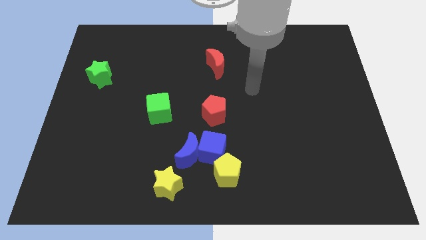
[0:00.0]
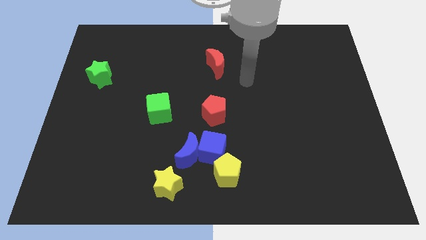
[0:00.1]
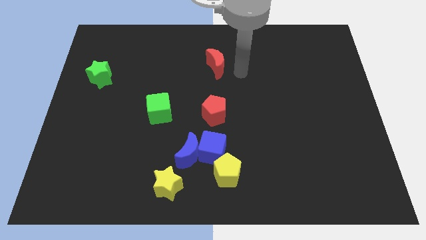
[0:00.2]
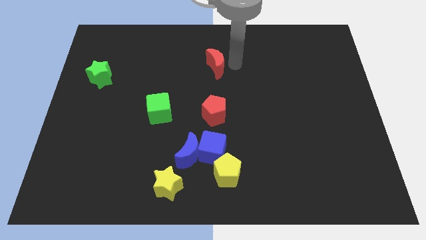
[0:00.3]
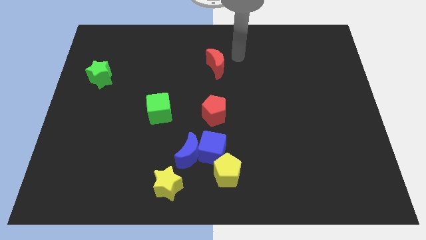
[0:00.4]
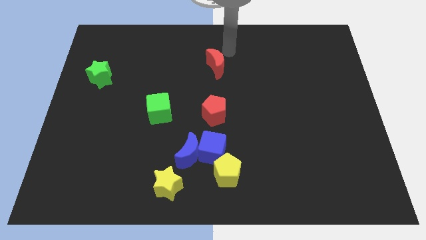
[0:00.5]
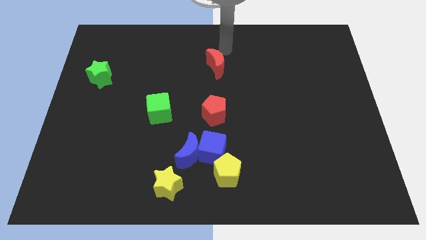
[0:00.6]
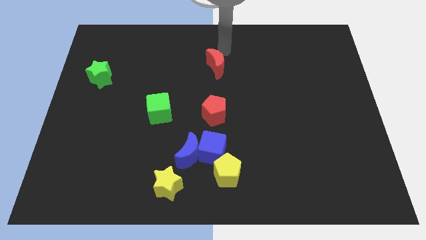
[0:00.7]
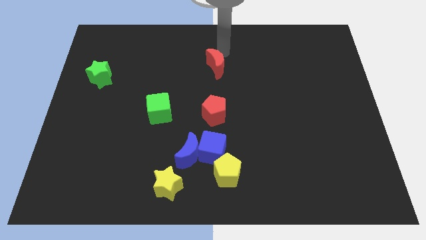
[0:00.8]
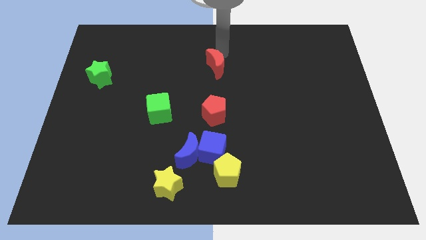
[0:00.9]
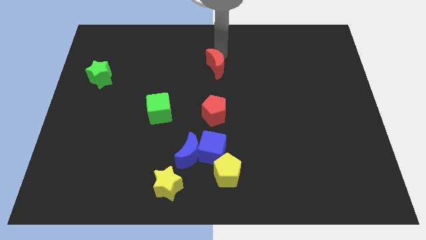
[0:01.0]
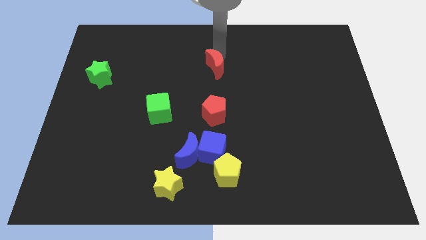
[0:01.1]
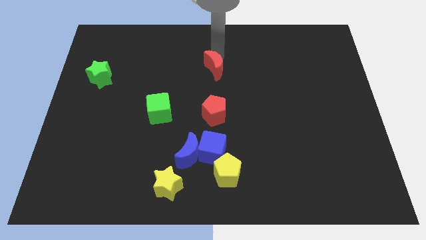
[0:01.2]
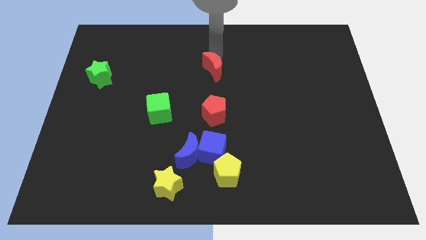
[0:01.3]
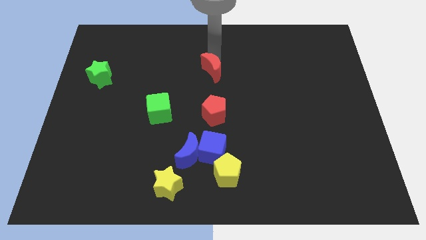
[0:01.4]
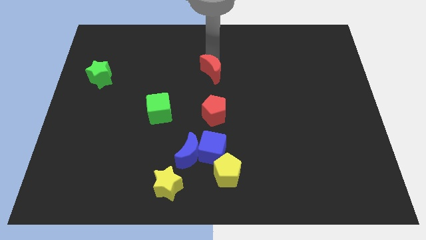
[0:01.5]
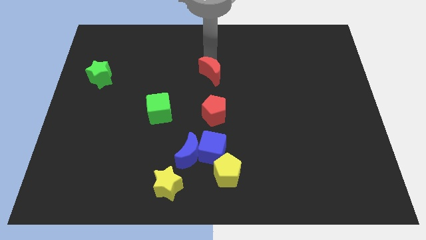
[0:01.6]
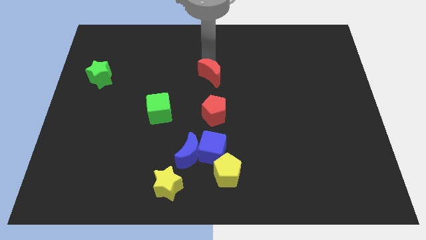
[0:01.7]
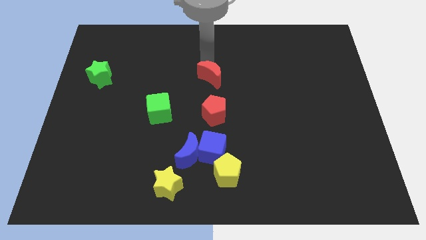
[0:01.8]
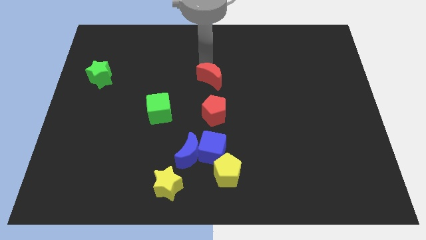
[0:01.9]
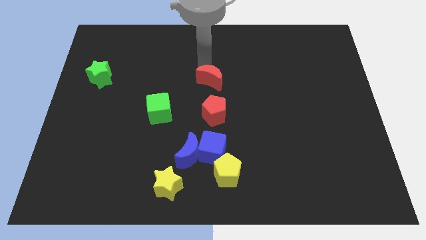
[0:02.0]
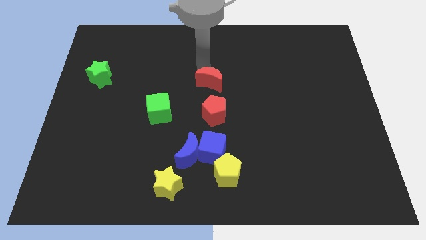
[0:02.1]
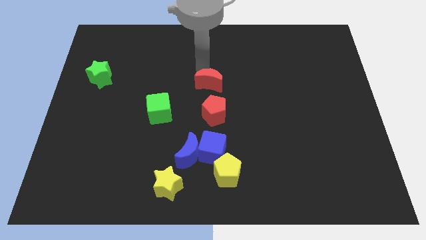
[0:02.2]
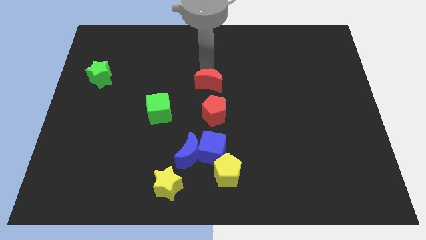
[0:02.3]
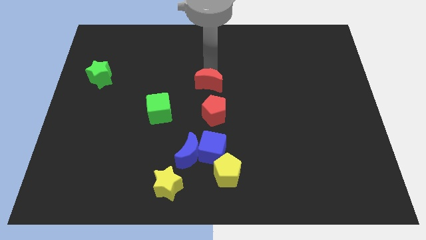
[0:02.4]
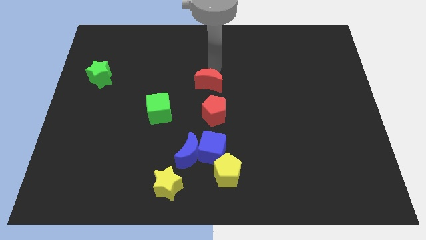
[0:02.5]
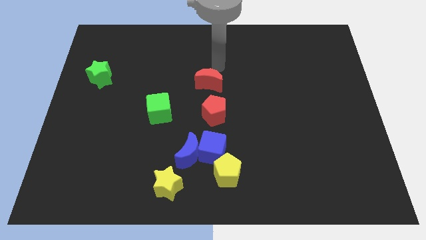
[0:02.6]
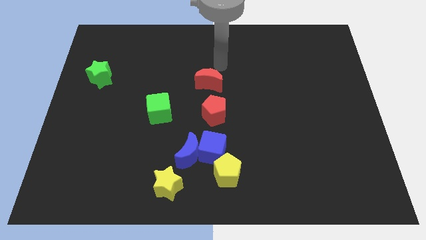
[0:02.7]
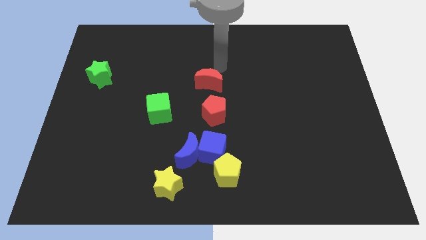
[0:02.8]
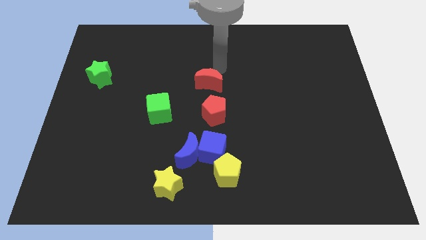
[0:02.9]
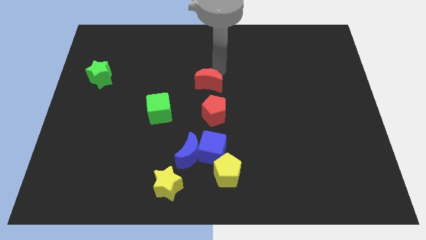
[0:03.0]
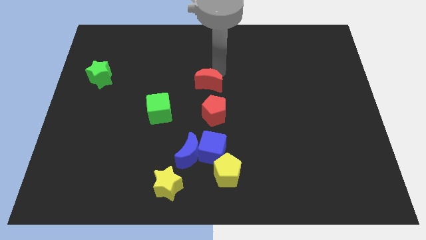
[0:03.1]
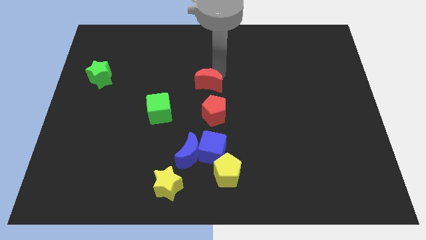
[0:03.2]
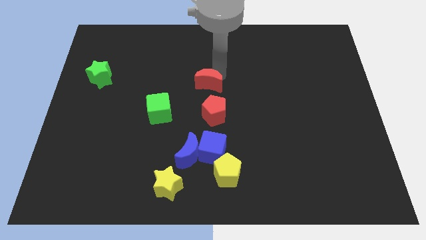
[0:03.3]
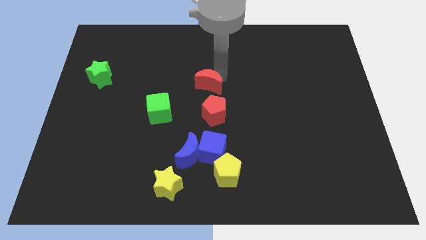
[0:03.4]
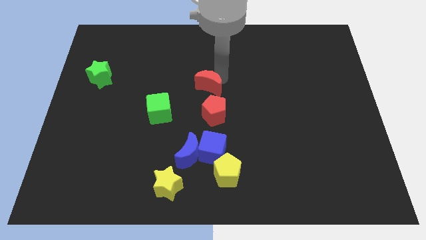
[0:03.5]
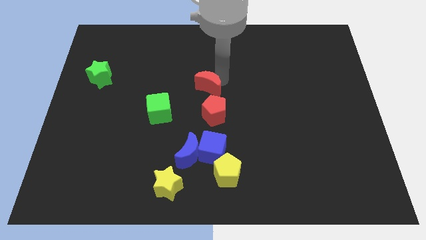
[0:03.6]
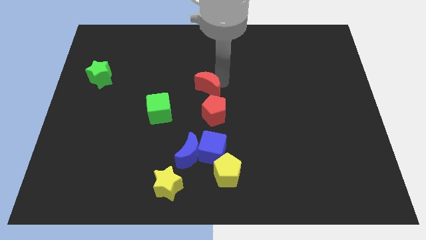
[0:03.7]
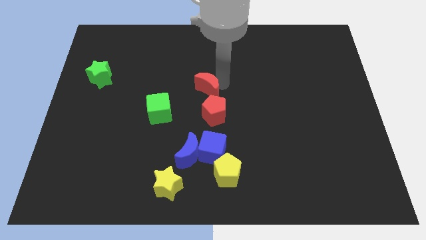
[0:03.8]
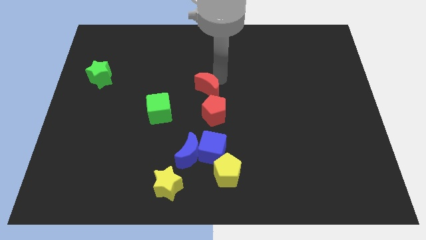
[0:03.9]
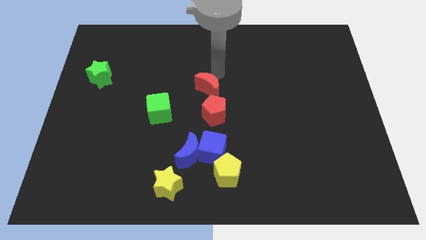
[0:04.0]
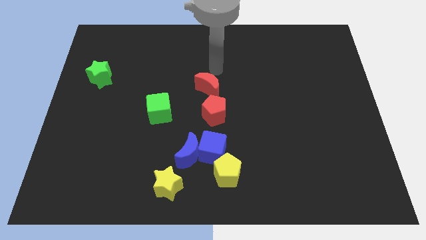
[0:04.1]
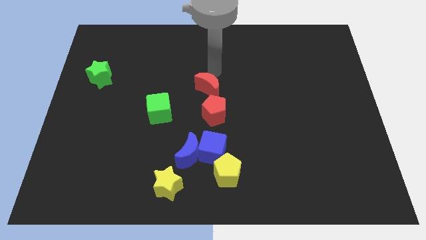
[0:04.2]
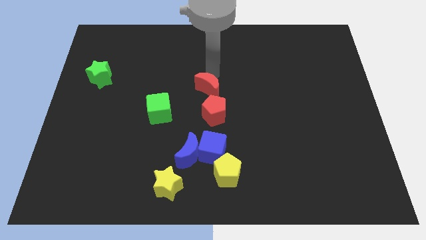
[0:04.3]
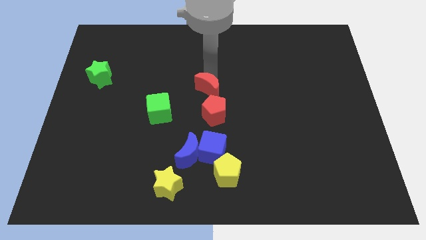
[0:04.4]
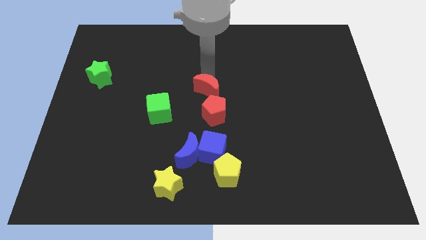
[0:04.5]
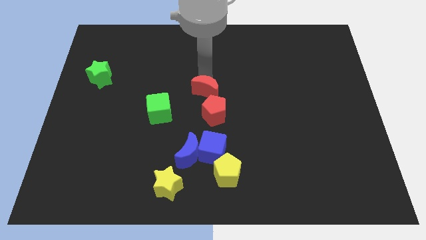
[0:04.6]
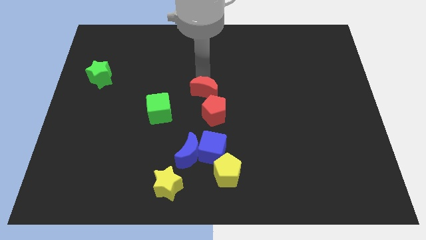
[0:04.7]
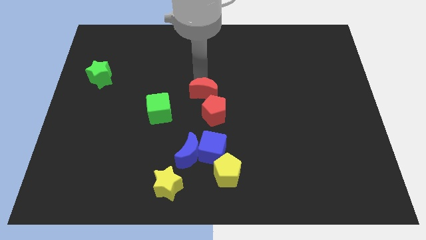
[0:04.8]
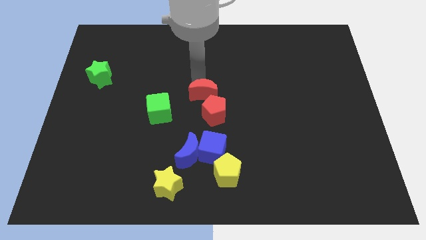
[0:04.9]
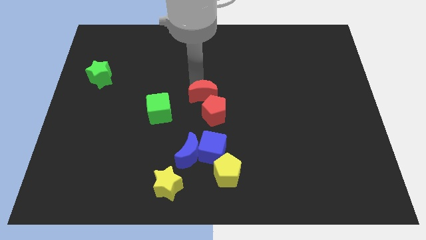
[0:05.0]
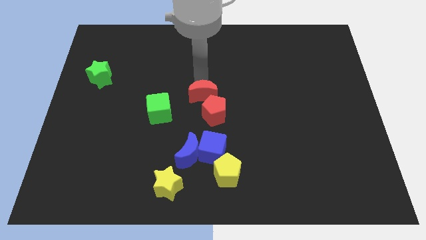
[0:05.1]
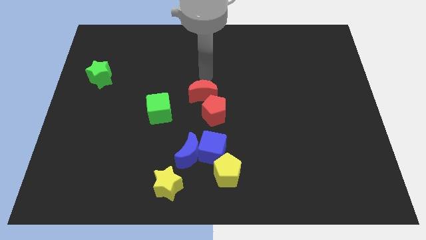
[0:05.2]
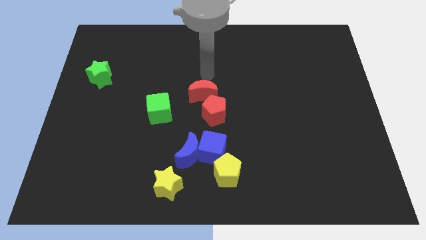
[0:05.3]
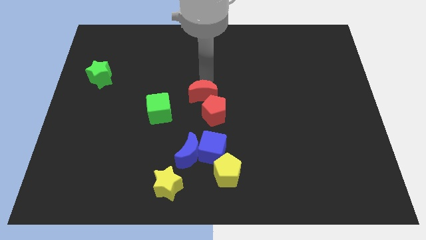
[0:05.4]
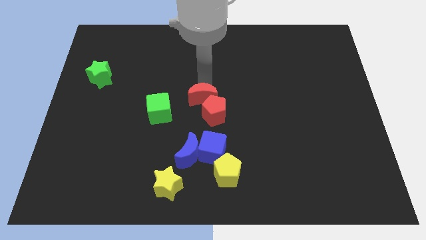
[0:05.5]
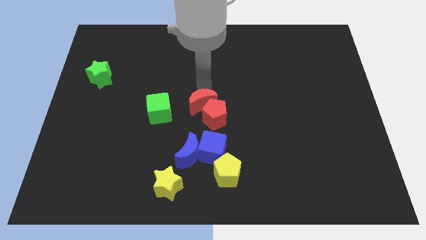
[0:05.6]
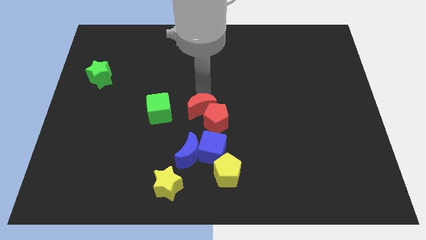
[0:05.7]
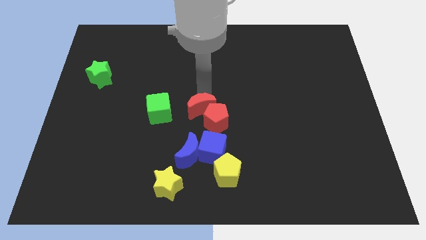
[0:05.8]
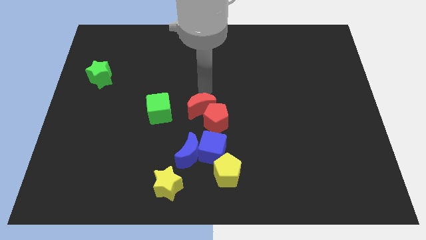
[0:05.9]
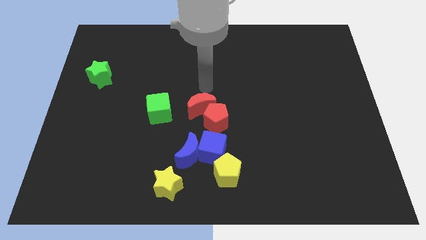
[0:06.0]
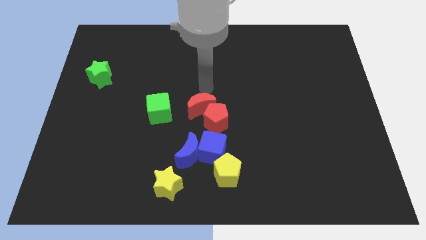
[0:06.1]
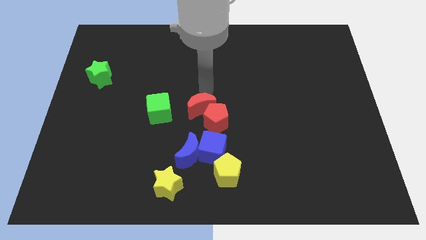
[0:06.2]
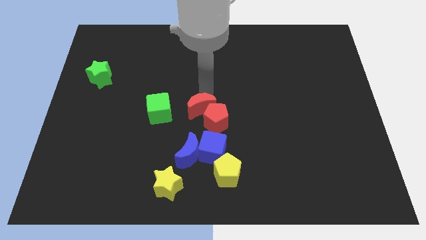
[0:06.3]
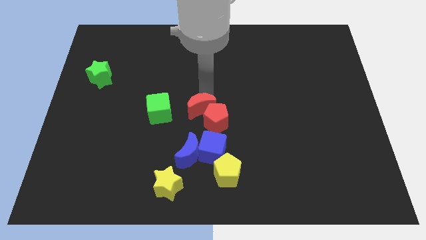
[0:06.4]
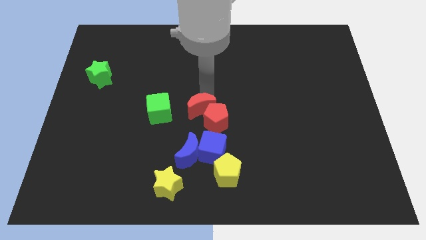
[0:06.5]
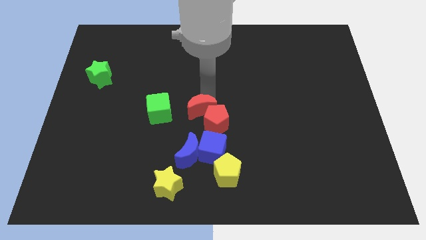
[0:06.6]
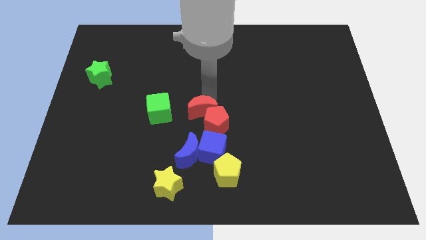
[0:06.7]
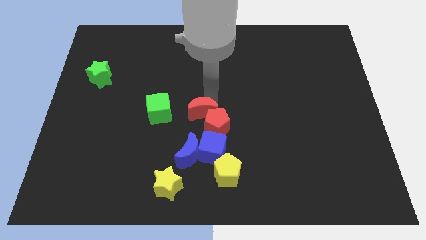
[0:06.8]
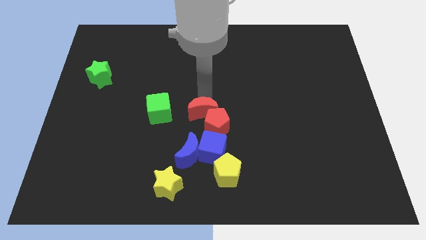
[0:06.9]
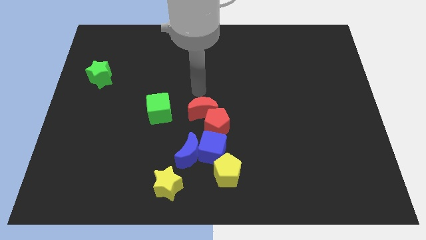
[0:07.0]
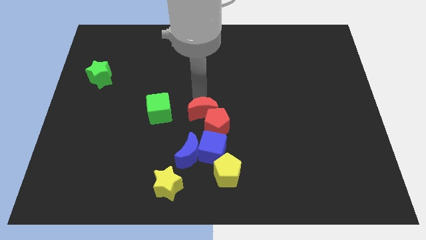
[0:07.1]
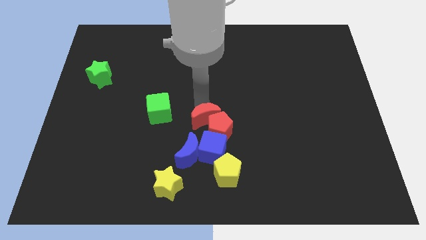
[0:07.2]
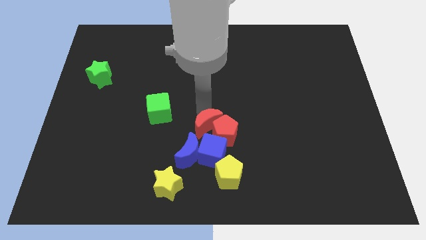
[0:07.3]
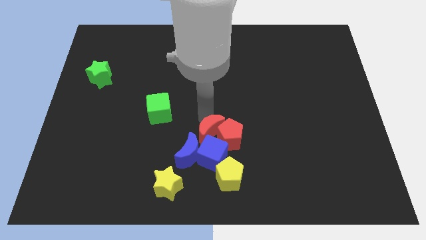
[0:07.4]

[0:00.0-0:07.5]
slide the red moon close to the blue cube
